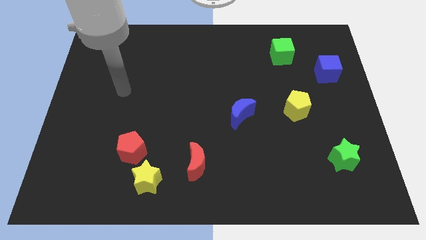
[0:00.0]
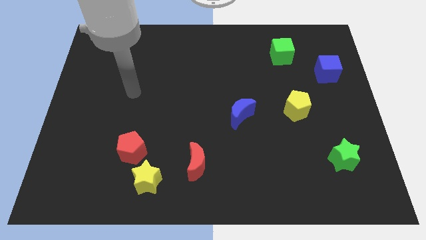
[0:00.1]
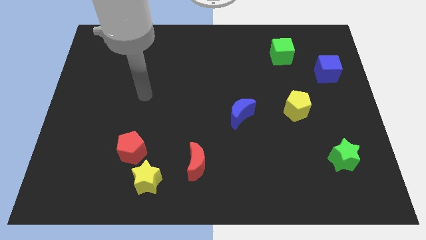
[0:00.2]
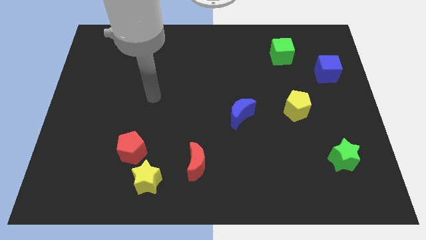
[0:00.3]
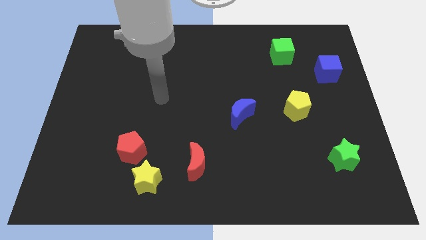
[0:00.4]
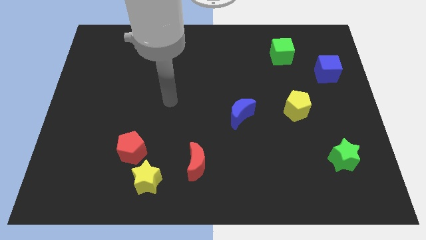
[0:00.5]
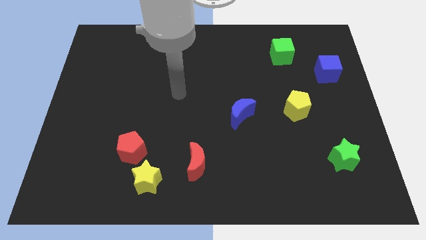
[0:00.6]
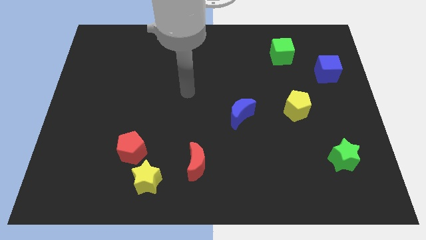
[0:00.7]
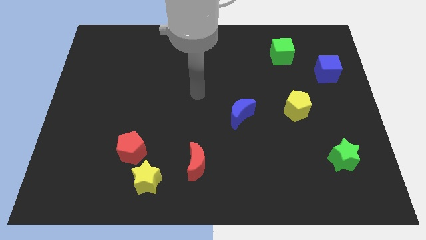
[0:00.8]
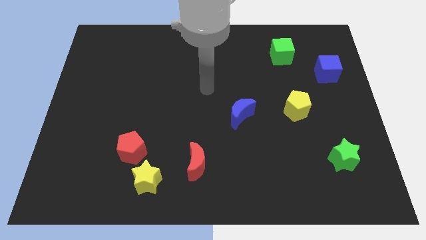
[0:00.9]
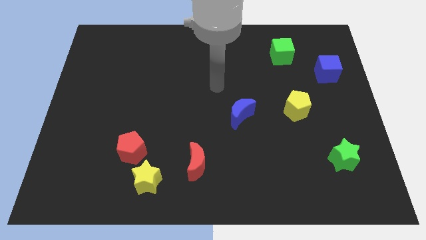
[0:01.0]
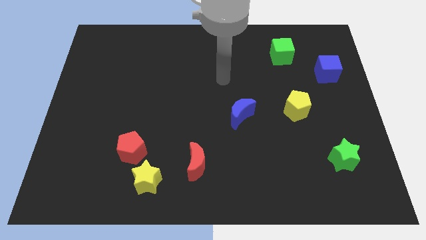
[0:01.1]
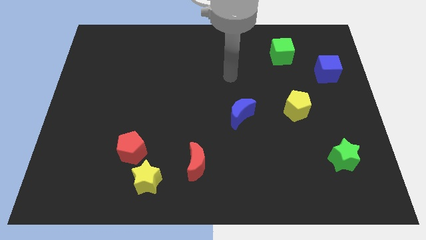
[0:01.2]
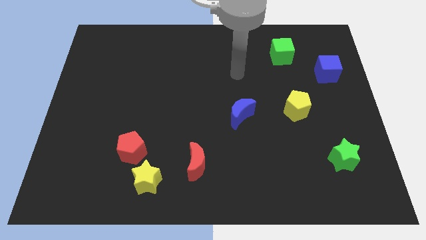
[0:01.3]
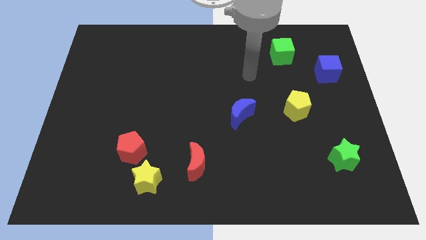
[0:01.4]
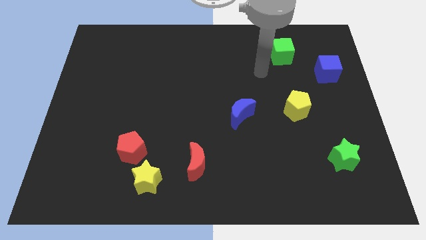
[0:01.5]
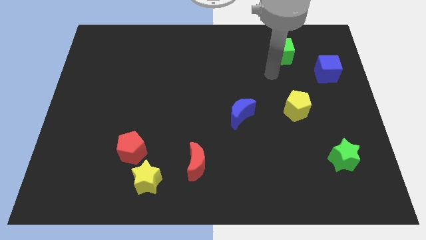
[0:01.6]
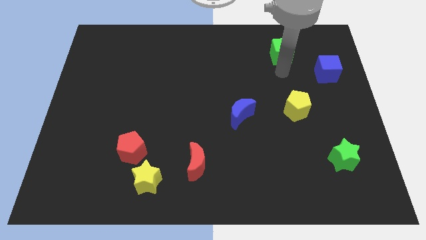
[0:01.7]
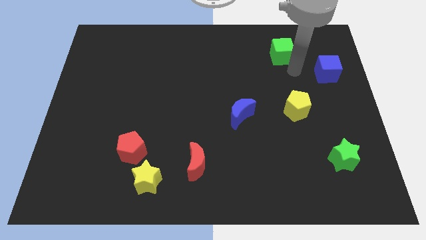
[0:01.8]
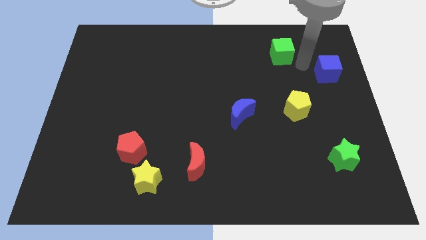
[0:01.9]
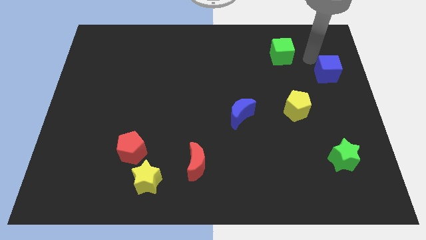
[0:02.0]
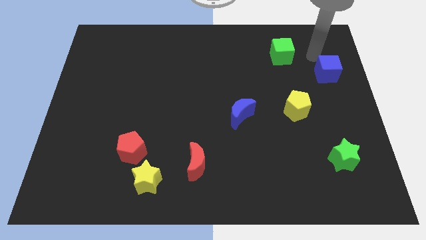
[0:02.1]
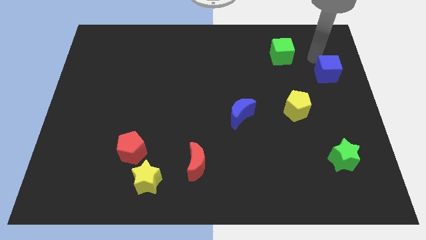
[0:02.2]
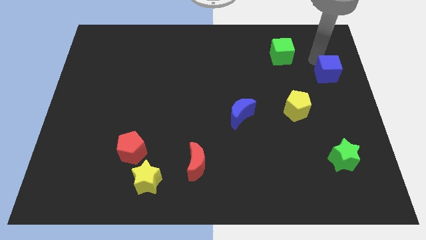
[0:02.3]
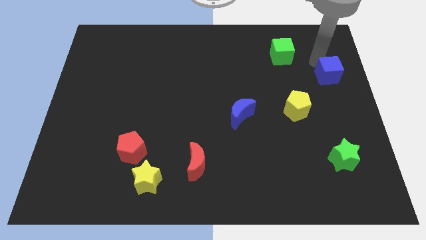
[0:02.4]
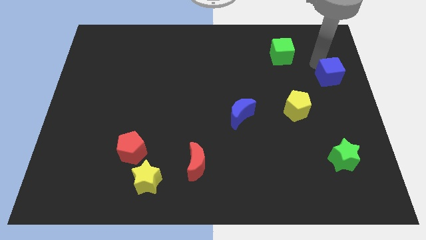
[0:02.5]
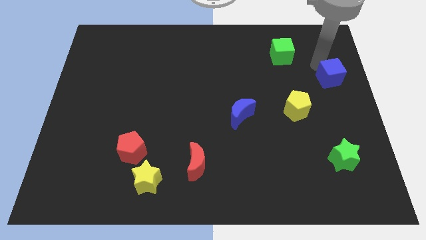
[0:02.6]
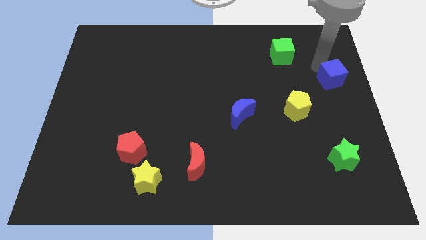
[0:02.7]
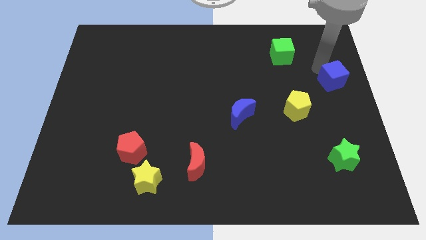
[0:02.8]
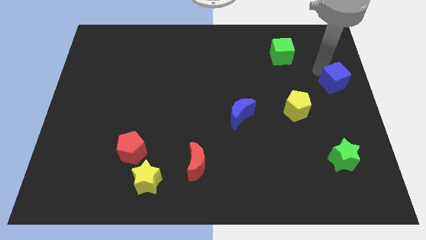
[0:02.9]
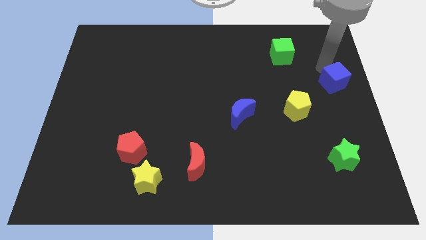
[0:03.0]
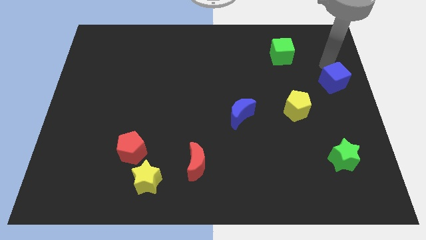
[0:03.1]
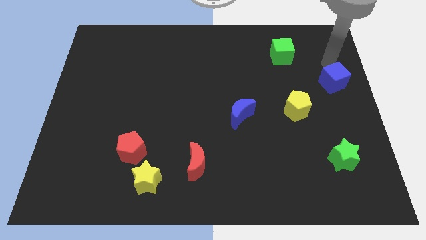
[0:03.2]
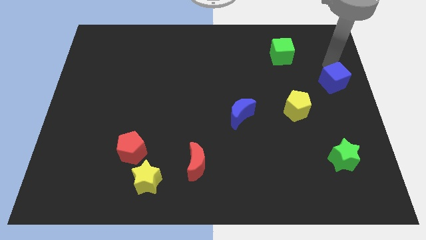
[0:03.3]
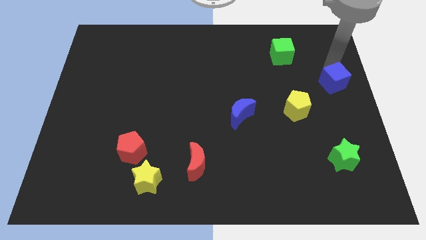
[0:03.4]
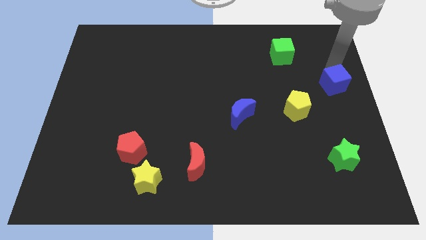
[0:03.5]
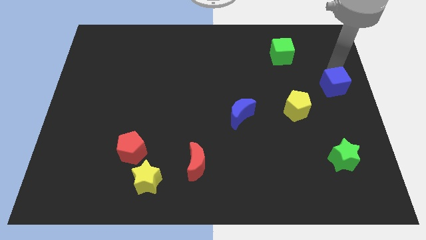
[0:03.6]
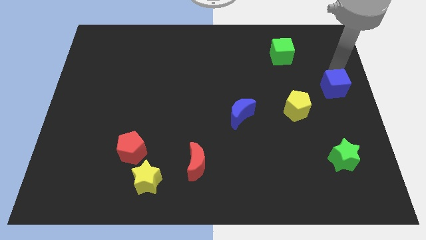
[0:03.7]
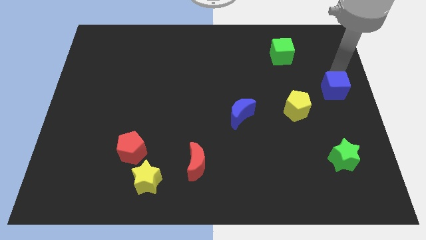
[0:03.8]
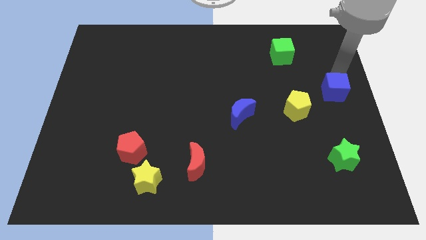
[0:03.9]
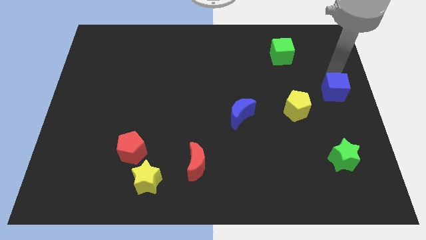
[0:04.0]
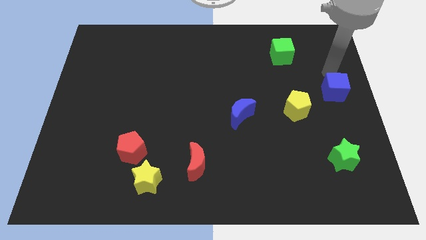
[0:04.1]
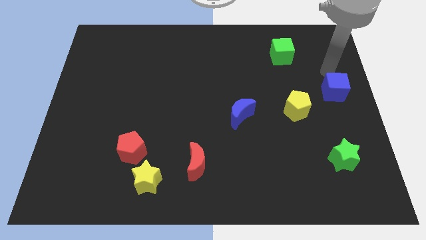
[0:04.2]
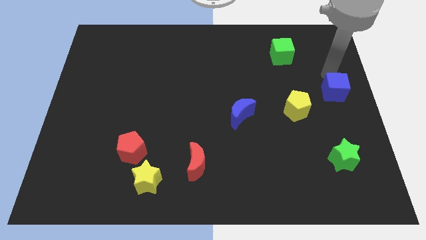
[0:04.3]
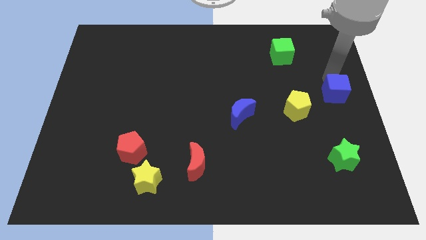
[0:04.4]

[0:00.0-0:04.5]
move the blue cube a little bit downwards

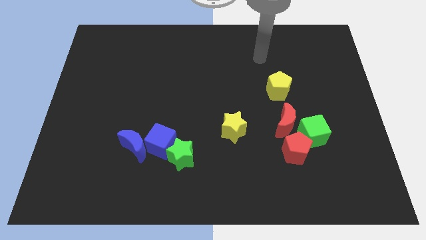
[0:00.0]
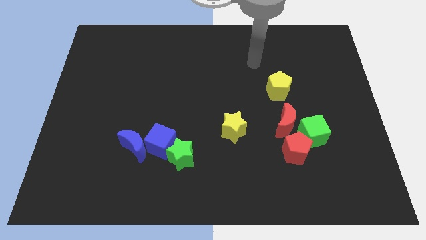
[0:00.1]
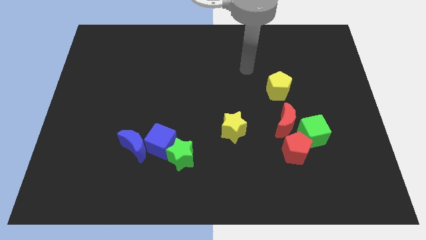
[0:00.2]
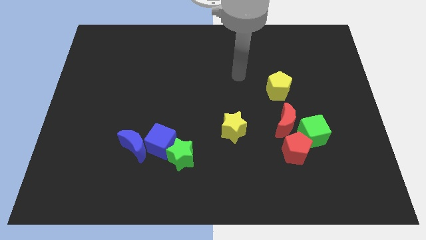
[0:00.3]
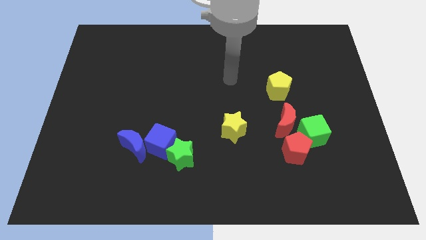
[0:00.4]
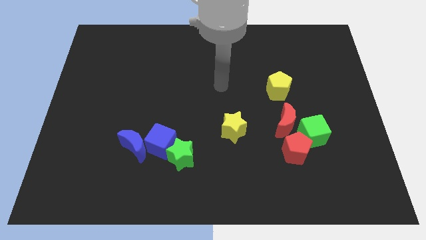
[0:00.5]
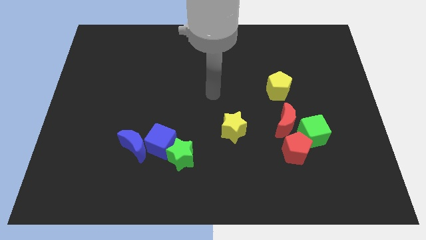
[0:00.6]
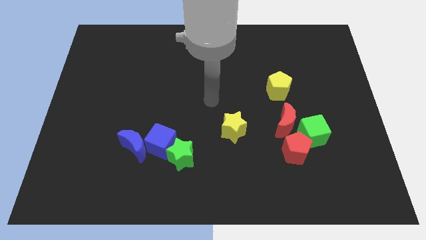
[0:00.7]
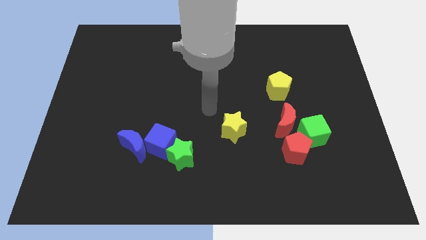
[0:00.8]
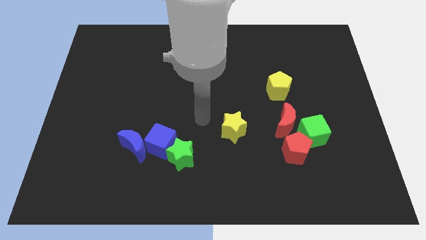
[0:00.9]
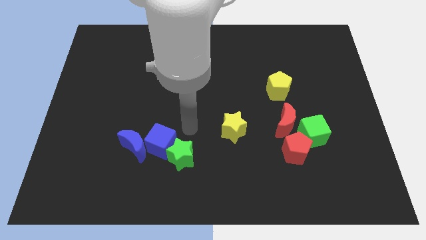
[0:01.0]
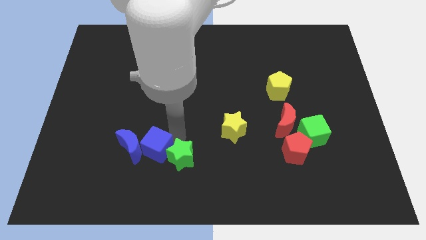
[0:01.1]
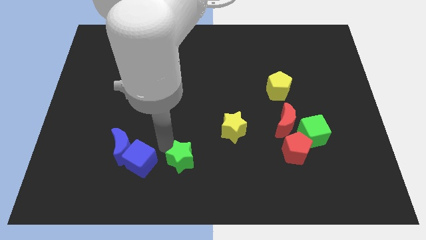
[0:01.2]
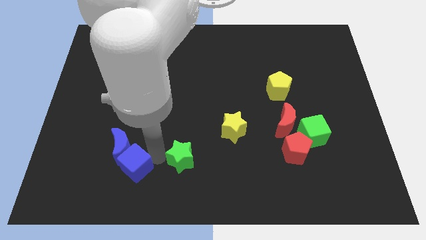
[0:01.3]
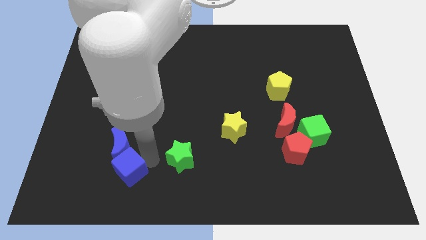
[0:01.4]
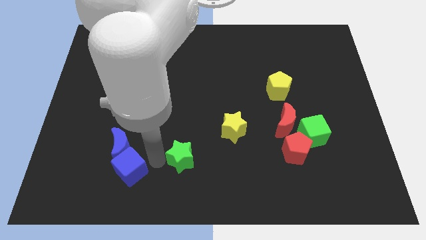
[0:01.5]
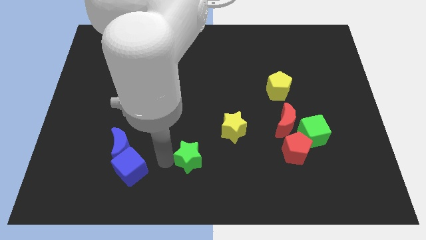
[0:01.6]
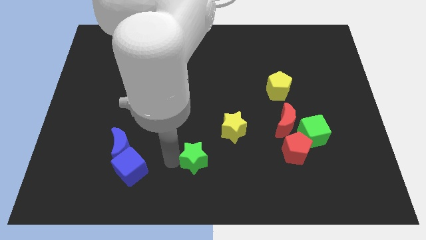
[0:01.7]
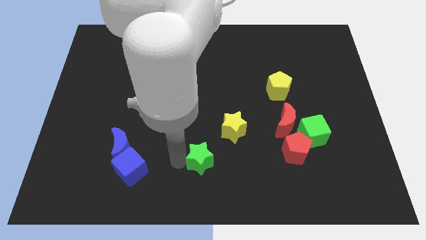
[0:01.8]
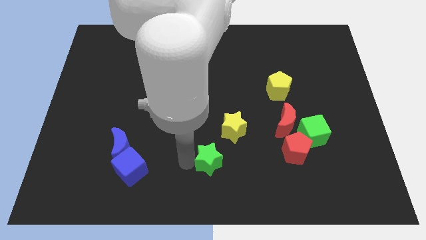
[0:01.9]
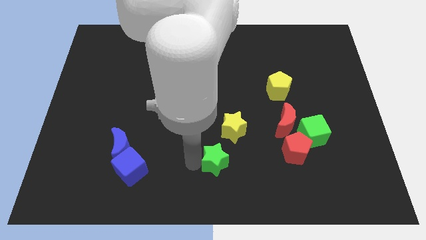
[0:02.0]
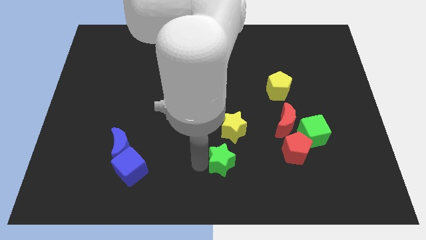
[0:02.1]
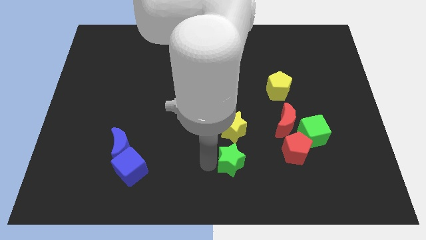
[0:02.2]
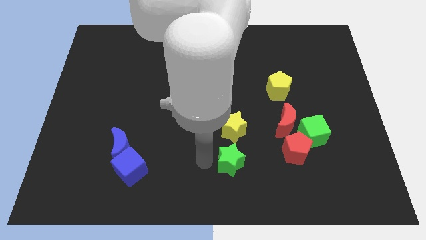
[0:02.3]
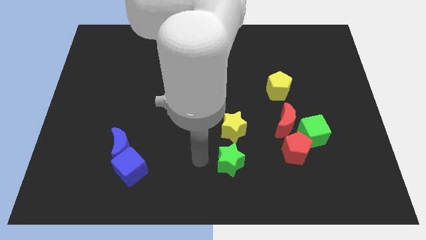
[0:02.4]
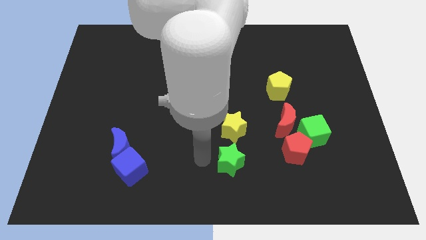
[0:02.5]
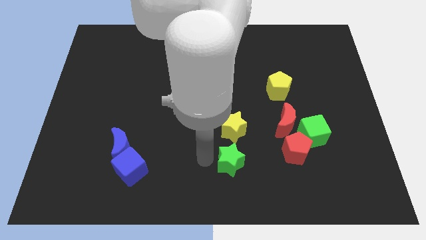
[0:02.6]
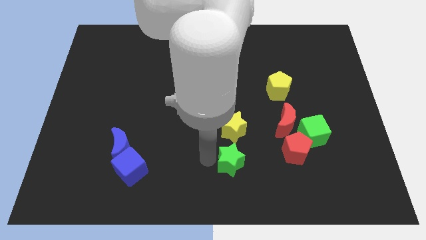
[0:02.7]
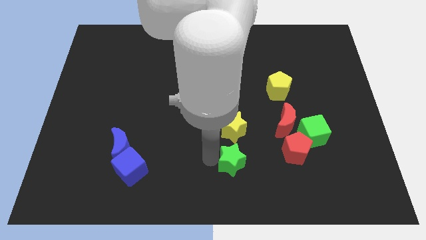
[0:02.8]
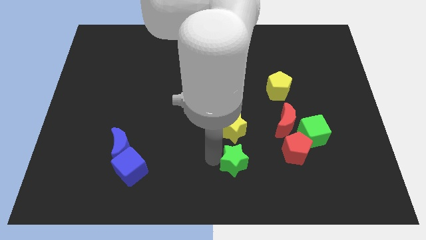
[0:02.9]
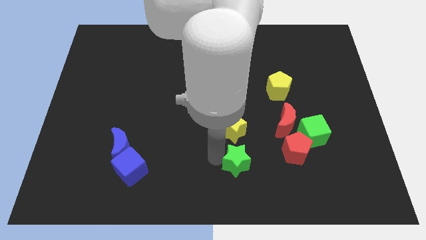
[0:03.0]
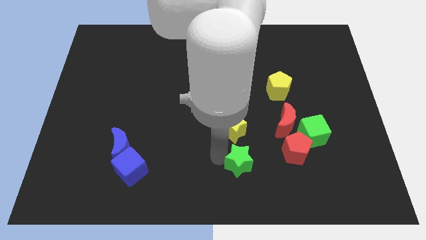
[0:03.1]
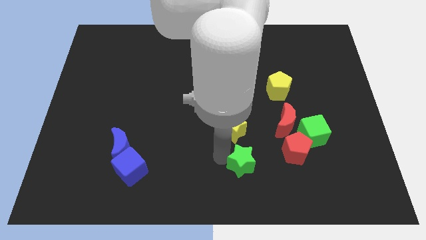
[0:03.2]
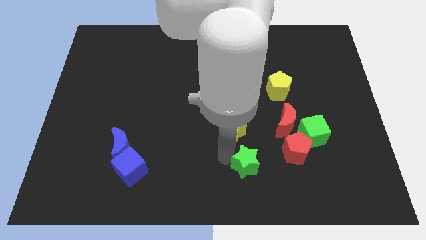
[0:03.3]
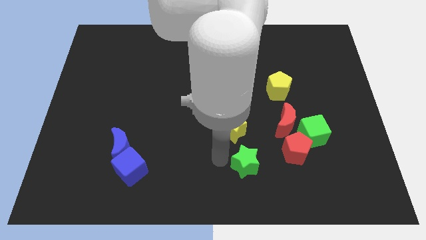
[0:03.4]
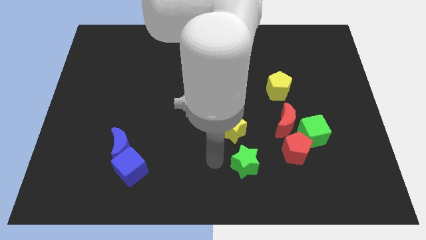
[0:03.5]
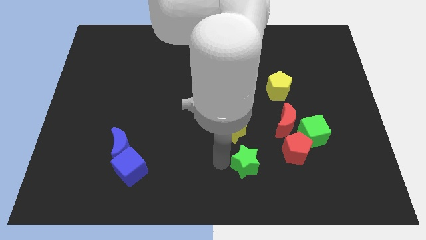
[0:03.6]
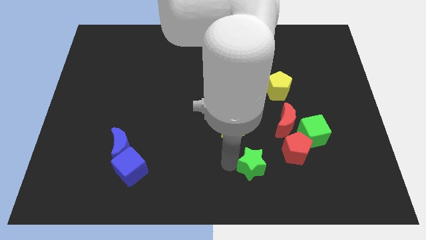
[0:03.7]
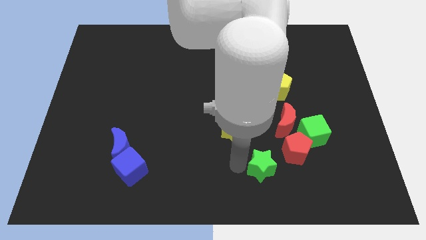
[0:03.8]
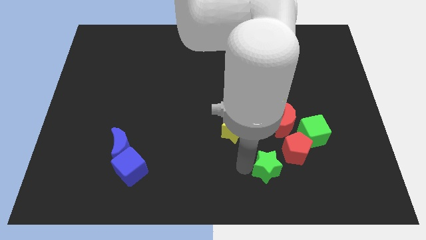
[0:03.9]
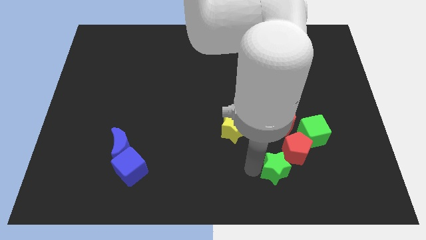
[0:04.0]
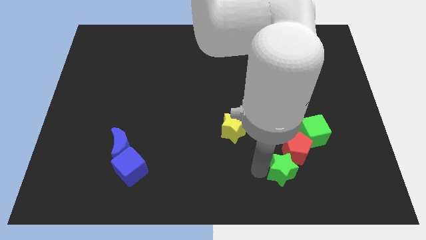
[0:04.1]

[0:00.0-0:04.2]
slide the green star right
